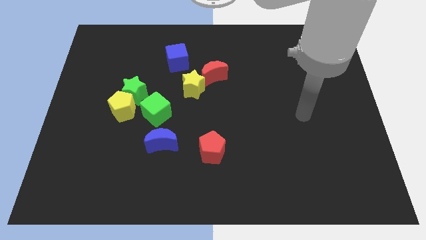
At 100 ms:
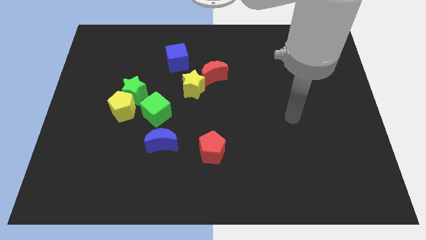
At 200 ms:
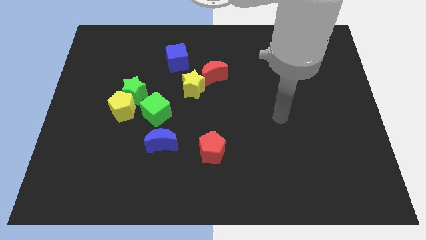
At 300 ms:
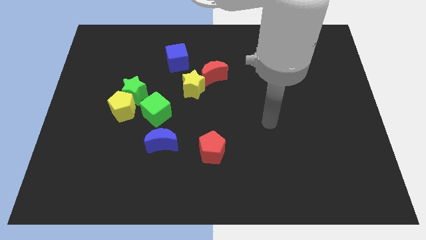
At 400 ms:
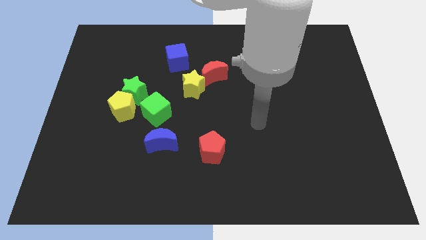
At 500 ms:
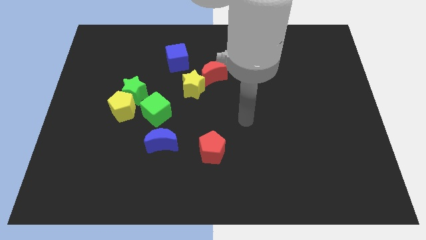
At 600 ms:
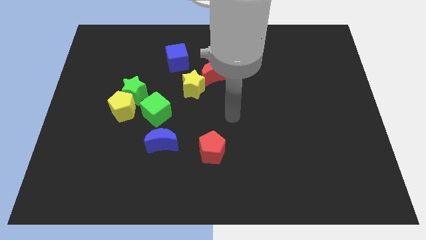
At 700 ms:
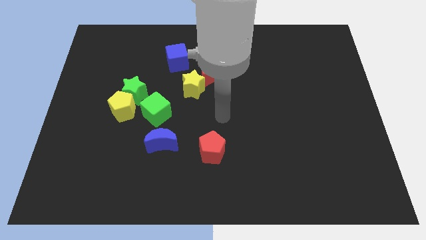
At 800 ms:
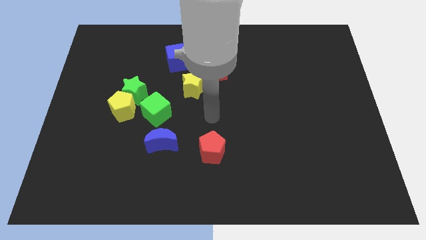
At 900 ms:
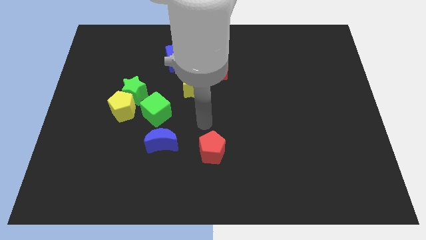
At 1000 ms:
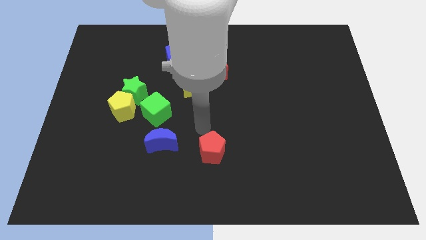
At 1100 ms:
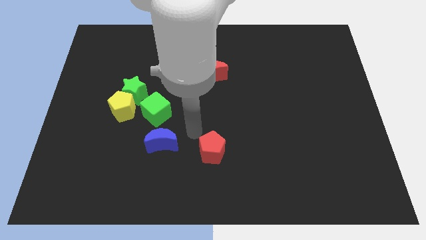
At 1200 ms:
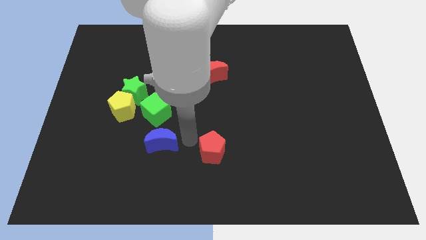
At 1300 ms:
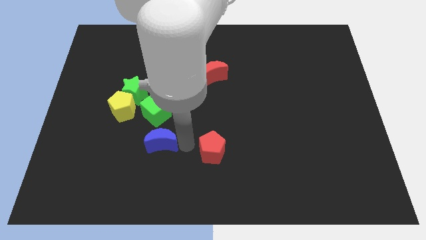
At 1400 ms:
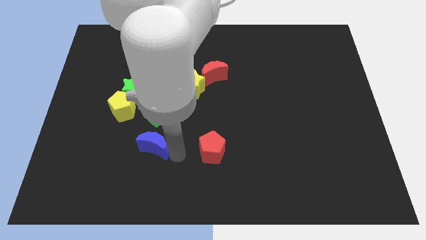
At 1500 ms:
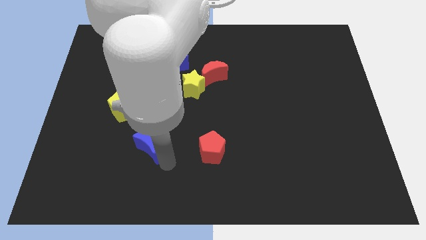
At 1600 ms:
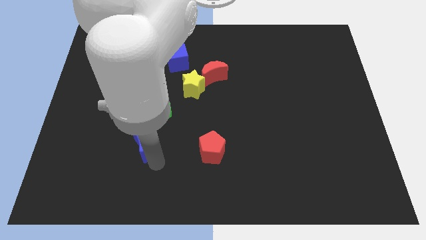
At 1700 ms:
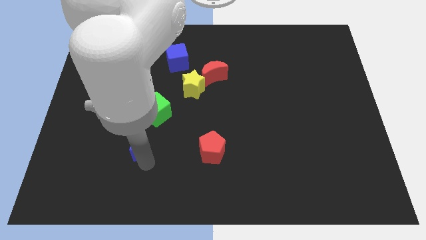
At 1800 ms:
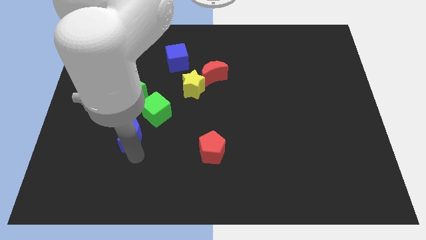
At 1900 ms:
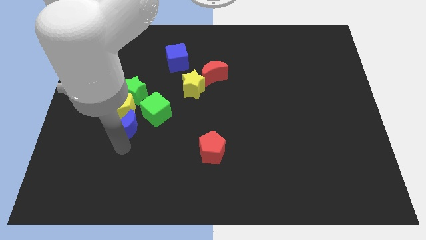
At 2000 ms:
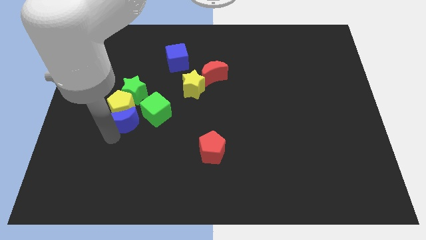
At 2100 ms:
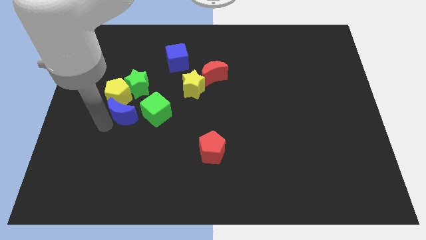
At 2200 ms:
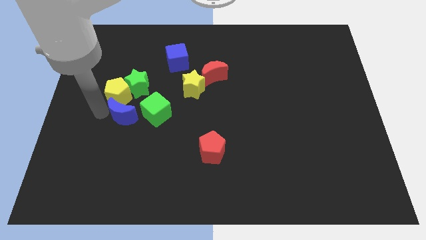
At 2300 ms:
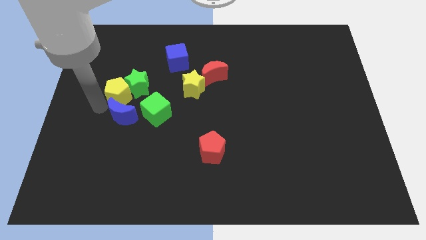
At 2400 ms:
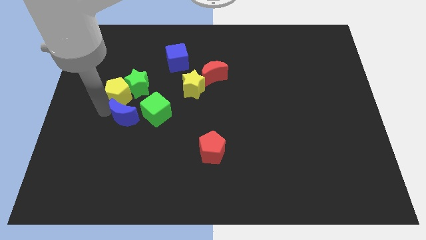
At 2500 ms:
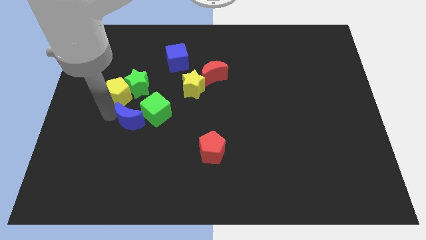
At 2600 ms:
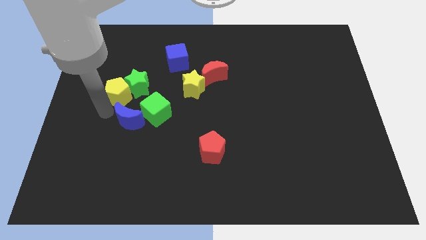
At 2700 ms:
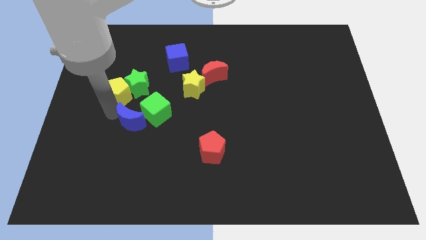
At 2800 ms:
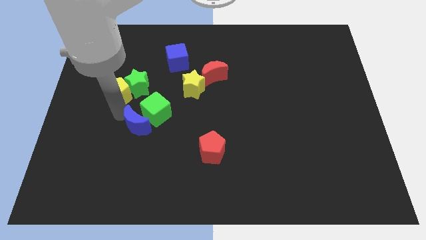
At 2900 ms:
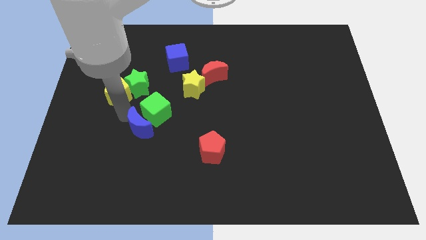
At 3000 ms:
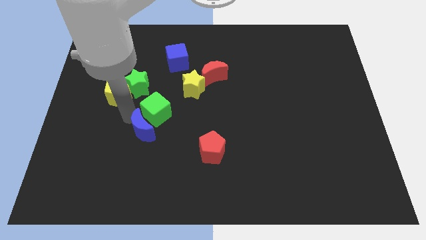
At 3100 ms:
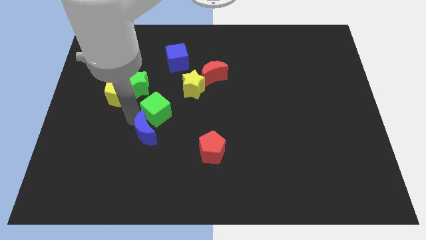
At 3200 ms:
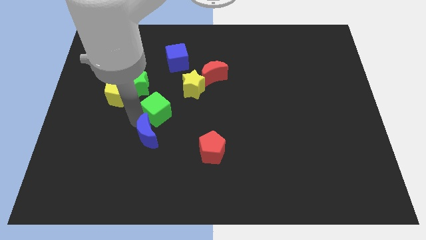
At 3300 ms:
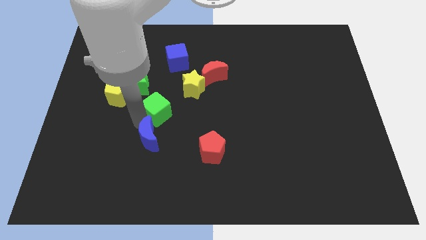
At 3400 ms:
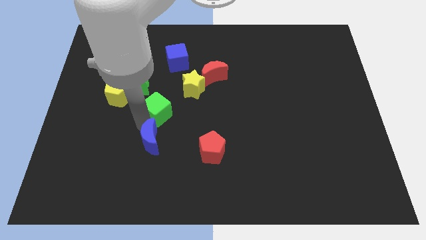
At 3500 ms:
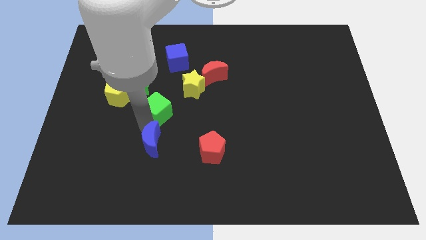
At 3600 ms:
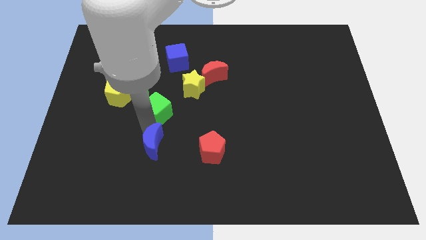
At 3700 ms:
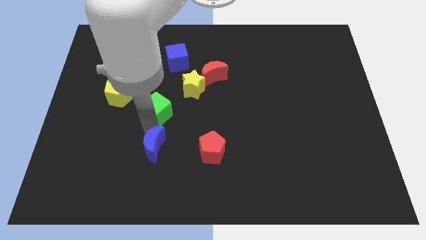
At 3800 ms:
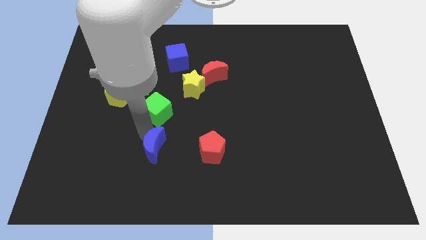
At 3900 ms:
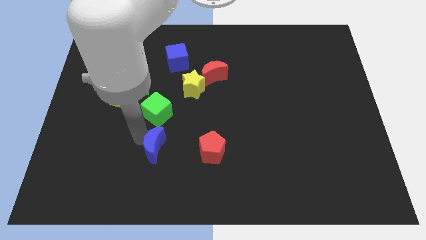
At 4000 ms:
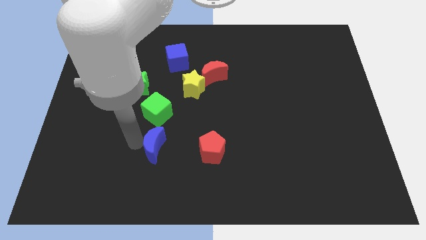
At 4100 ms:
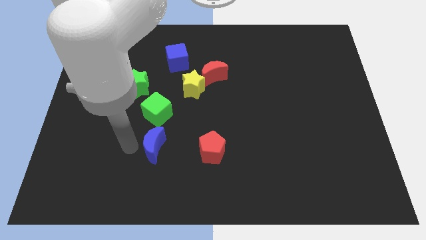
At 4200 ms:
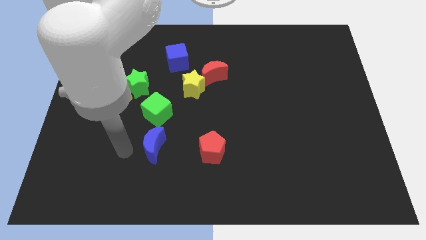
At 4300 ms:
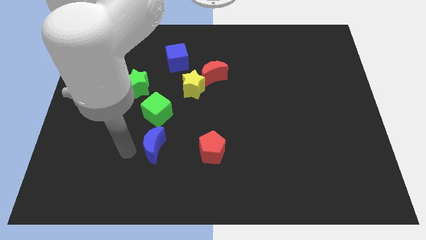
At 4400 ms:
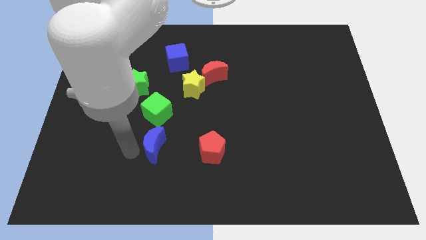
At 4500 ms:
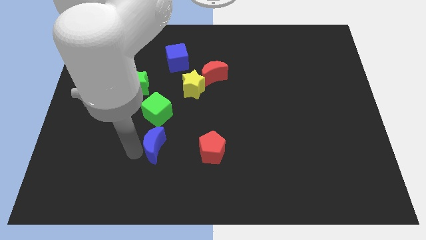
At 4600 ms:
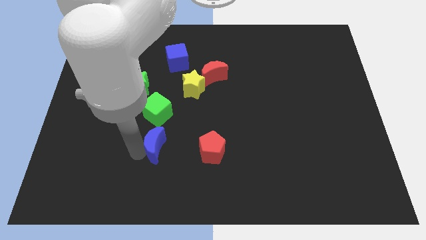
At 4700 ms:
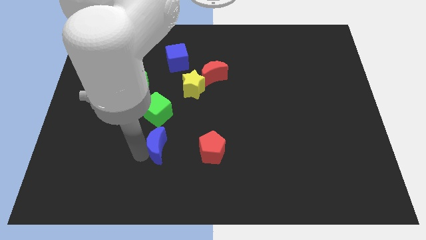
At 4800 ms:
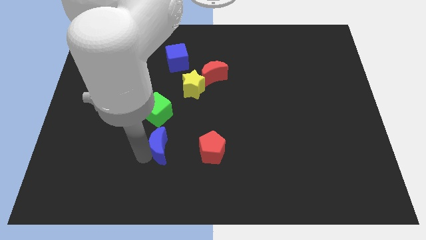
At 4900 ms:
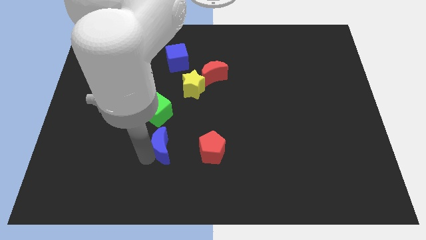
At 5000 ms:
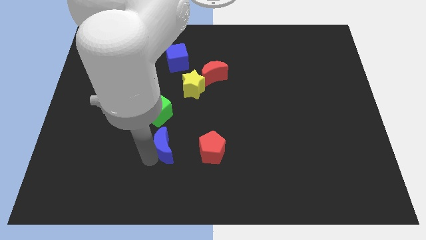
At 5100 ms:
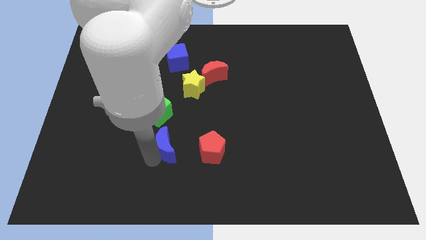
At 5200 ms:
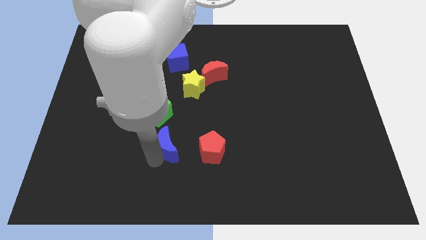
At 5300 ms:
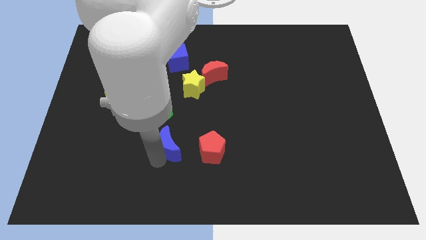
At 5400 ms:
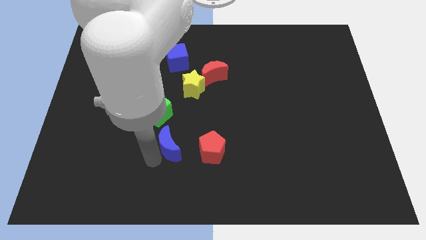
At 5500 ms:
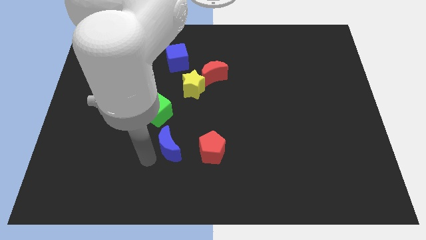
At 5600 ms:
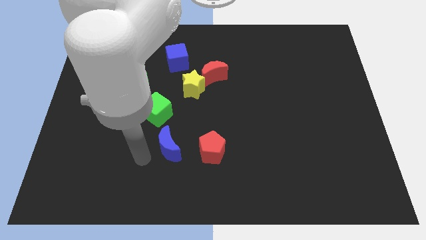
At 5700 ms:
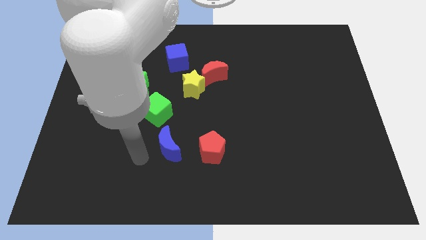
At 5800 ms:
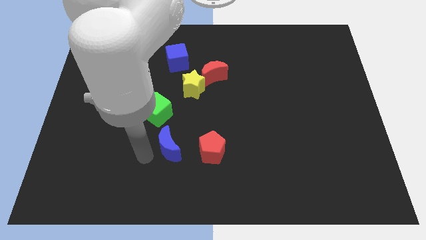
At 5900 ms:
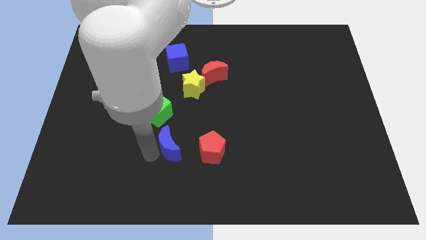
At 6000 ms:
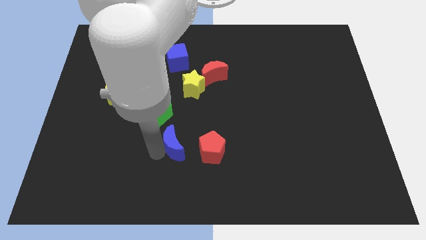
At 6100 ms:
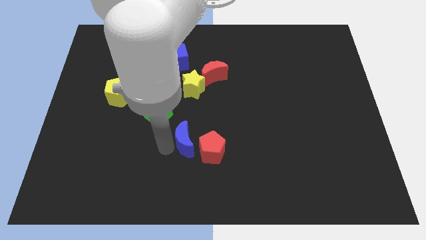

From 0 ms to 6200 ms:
push the blue moon towards the red pentagon

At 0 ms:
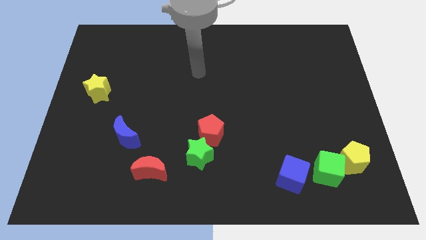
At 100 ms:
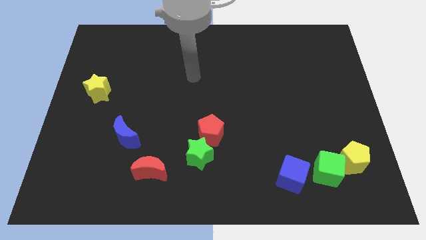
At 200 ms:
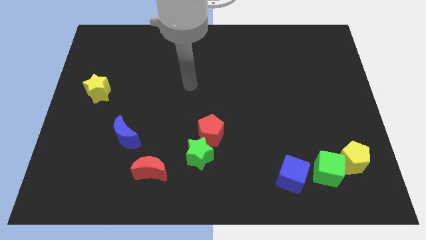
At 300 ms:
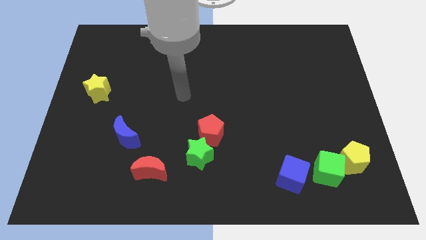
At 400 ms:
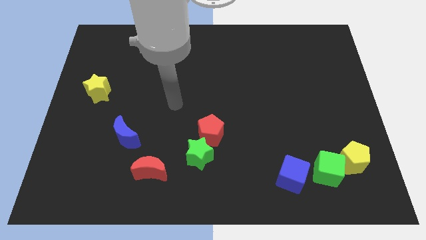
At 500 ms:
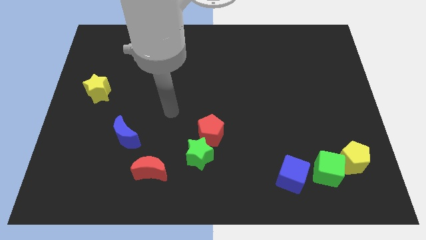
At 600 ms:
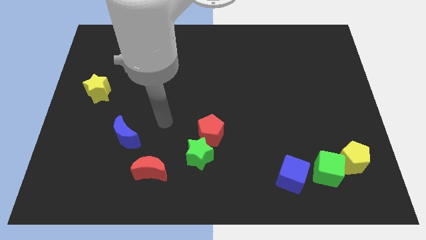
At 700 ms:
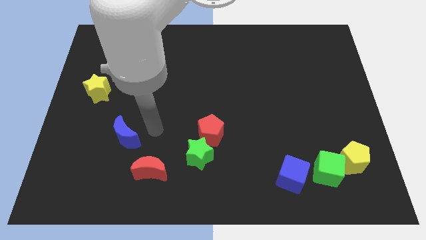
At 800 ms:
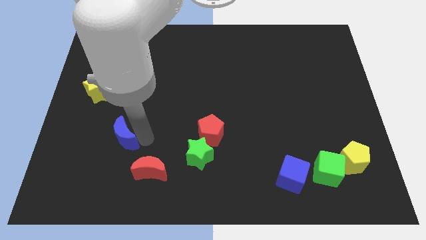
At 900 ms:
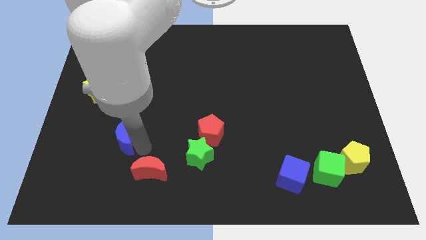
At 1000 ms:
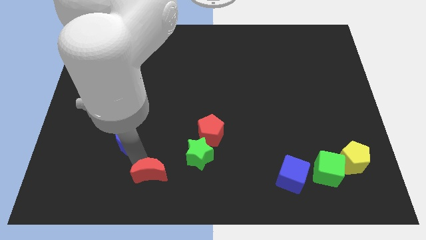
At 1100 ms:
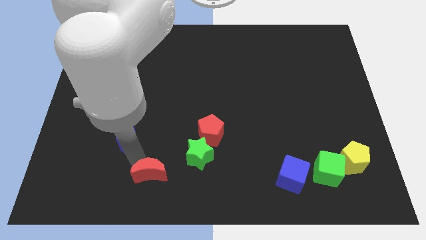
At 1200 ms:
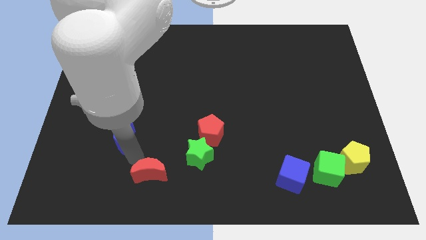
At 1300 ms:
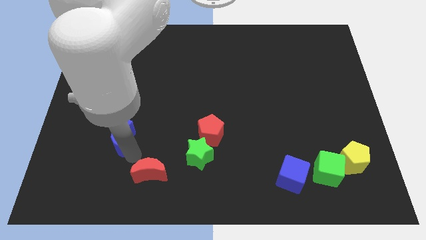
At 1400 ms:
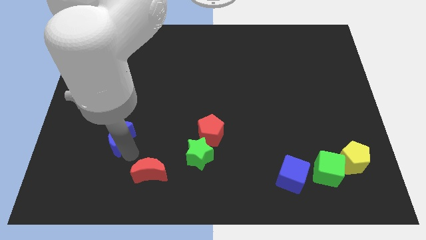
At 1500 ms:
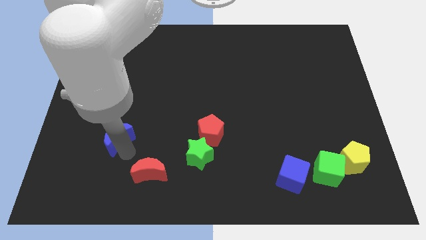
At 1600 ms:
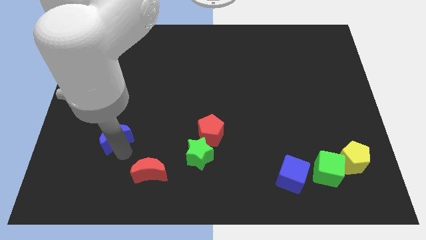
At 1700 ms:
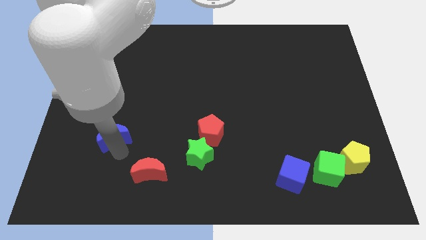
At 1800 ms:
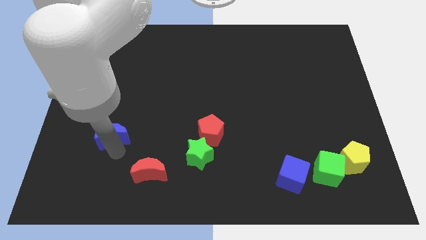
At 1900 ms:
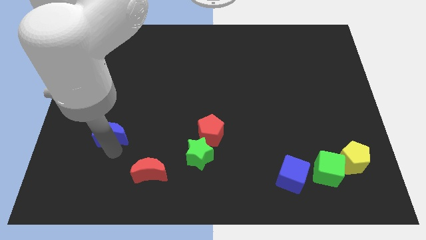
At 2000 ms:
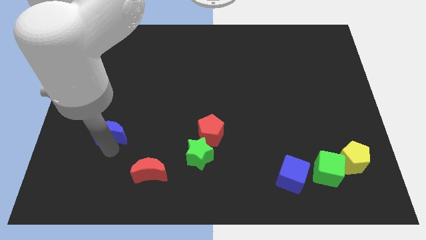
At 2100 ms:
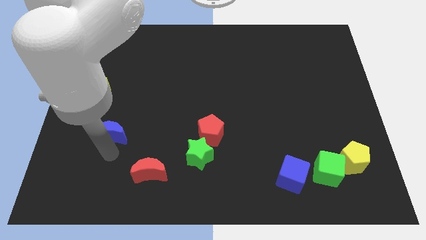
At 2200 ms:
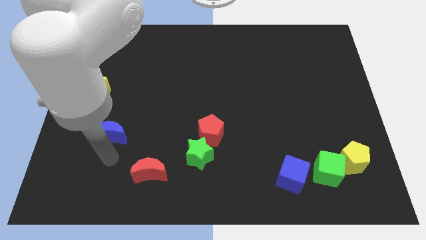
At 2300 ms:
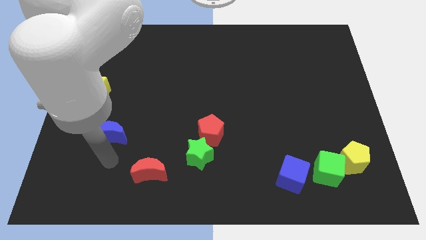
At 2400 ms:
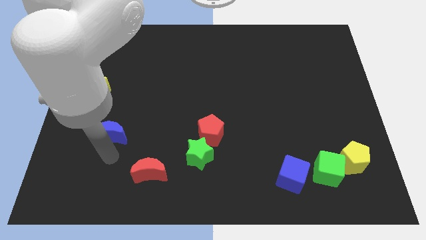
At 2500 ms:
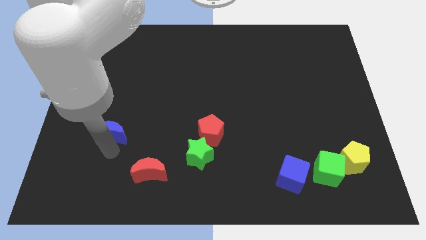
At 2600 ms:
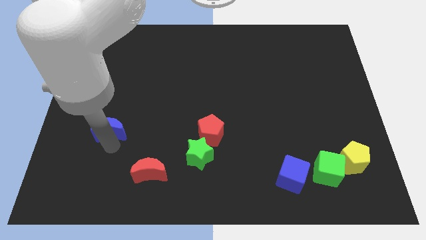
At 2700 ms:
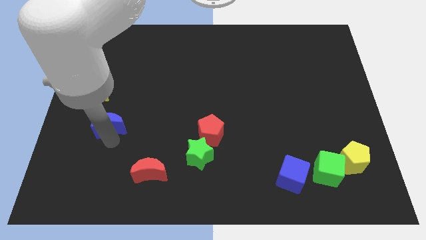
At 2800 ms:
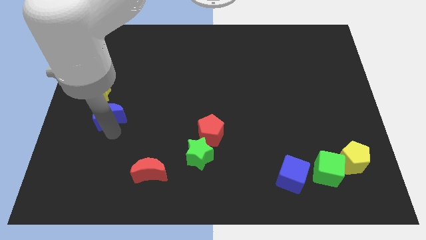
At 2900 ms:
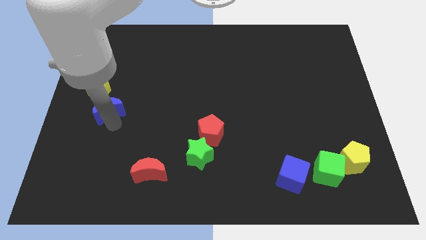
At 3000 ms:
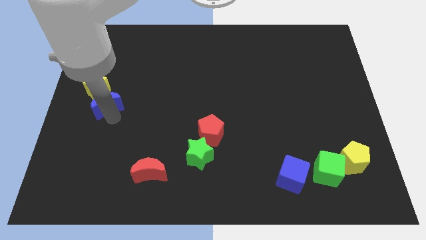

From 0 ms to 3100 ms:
put the blue moon next to the yellow star
